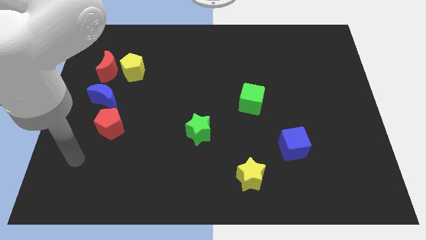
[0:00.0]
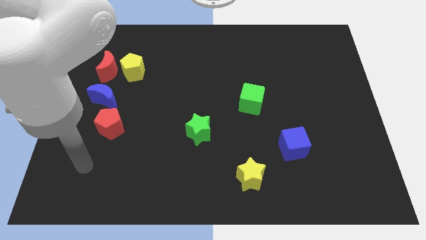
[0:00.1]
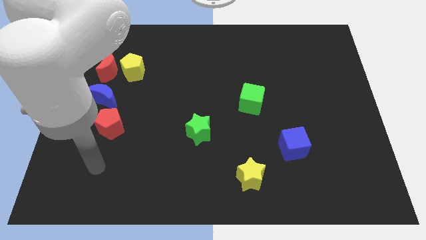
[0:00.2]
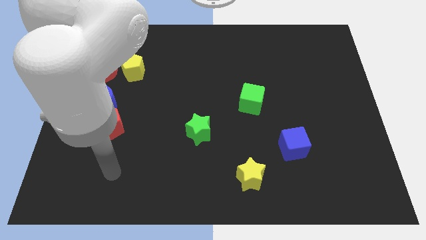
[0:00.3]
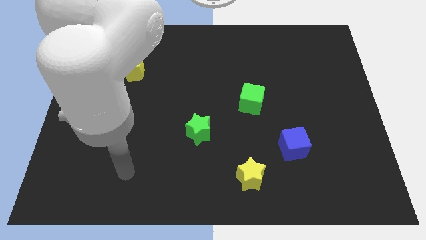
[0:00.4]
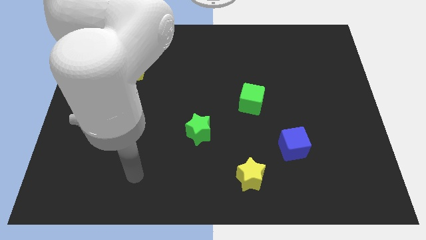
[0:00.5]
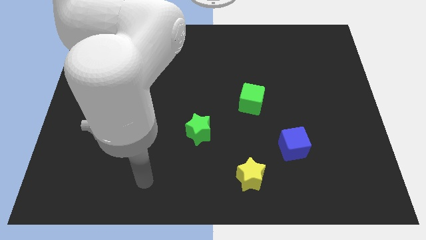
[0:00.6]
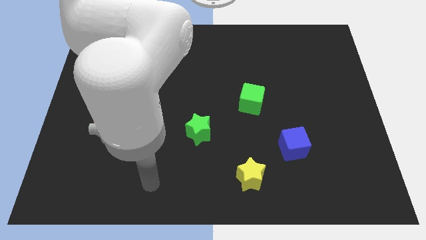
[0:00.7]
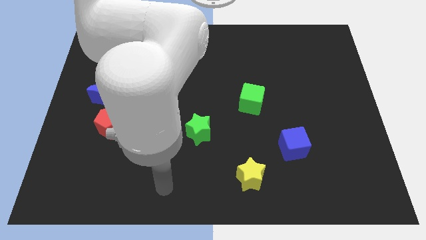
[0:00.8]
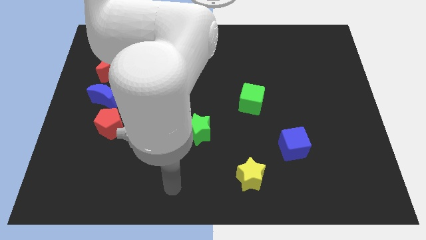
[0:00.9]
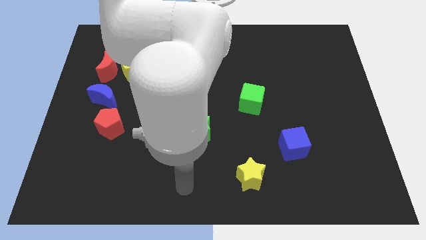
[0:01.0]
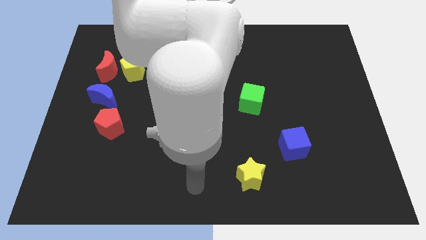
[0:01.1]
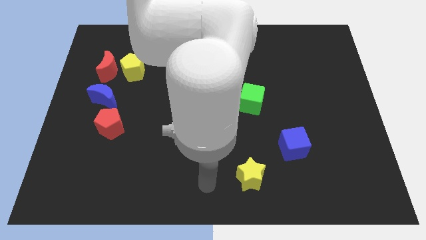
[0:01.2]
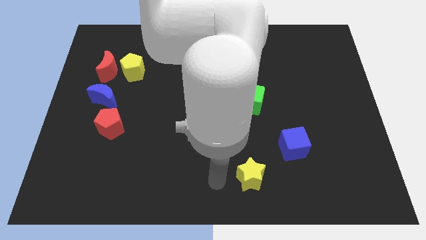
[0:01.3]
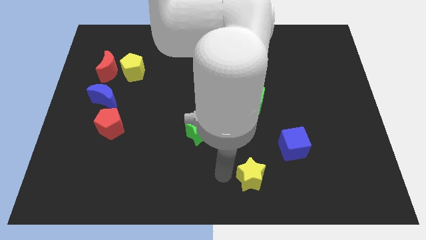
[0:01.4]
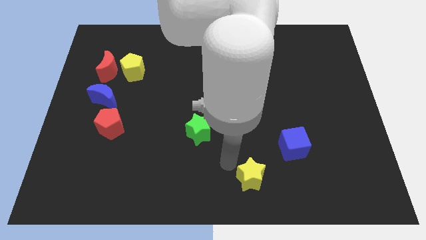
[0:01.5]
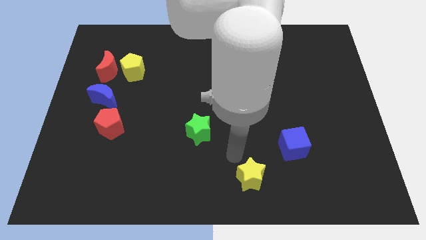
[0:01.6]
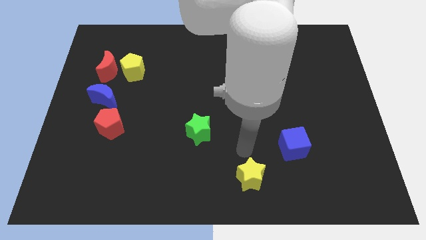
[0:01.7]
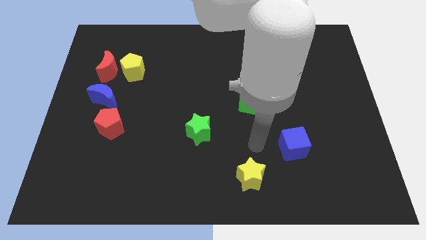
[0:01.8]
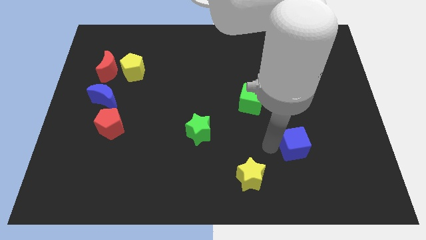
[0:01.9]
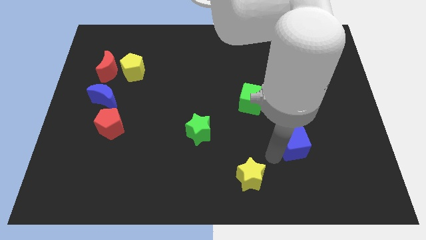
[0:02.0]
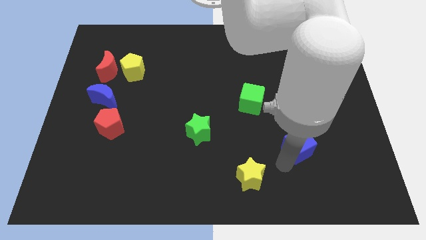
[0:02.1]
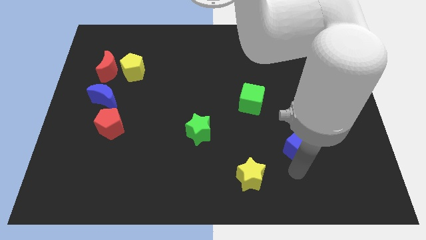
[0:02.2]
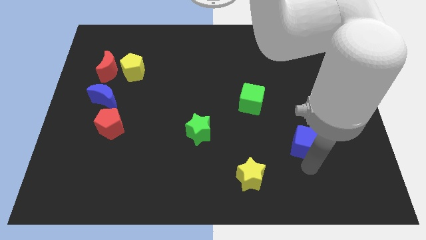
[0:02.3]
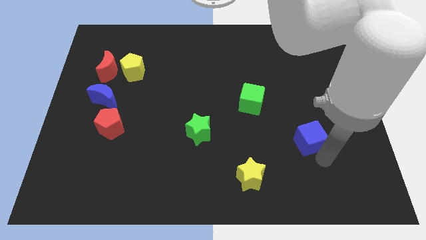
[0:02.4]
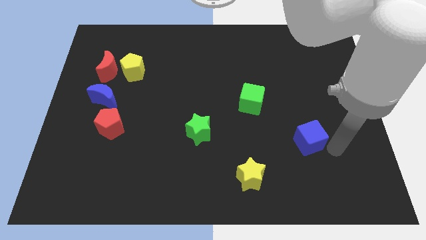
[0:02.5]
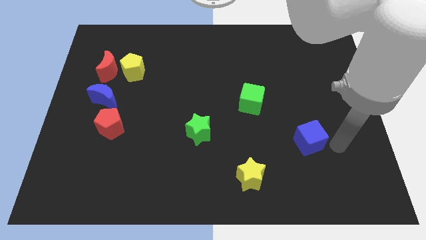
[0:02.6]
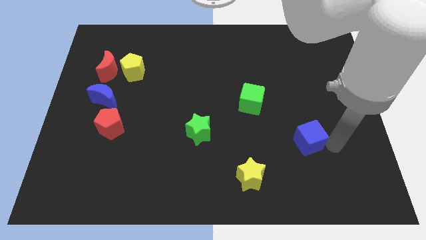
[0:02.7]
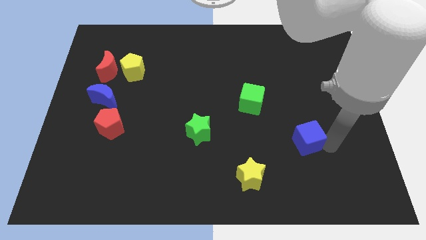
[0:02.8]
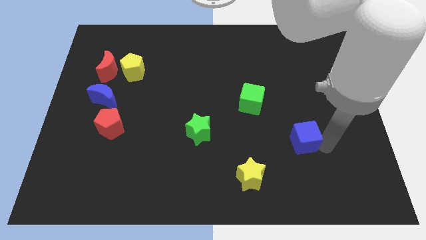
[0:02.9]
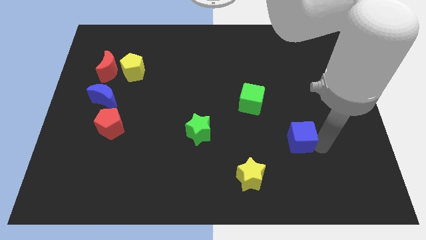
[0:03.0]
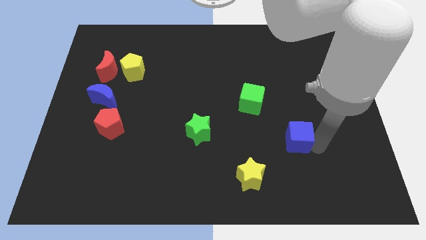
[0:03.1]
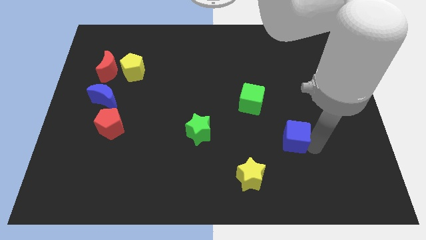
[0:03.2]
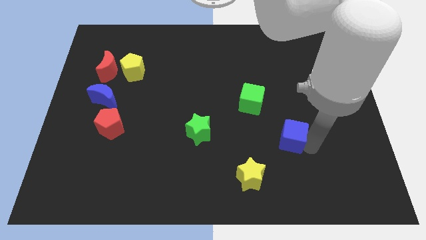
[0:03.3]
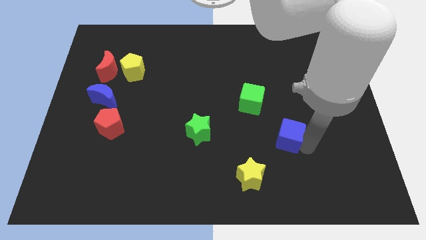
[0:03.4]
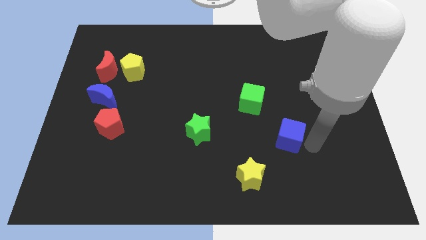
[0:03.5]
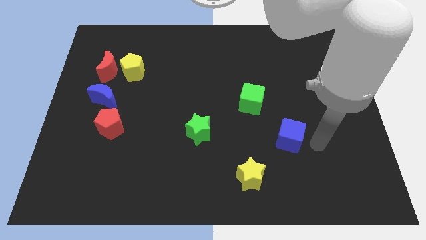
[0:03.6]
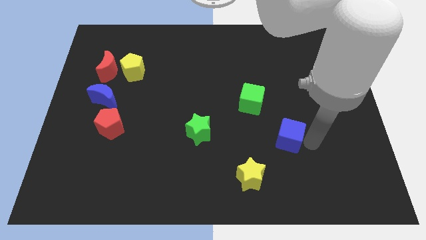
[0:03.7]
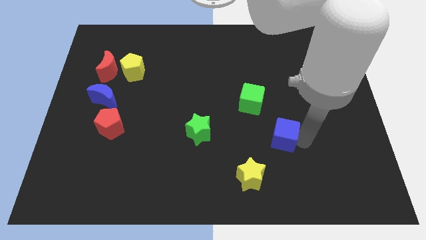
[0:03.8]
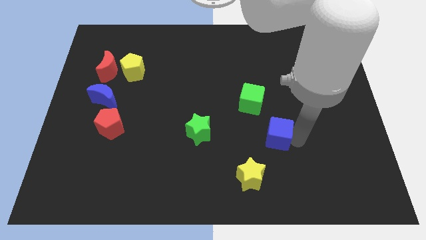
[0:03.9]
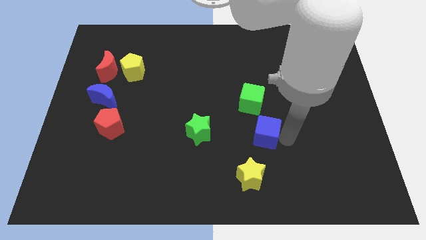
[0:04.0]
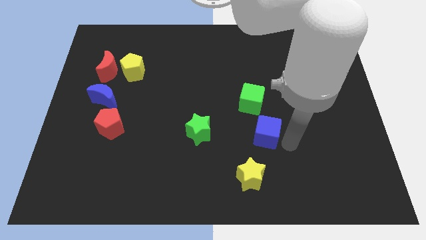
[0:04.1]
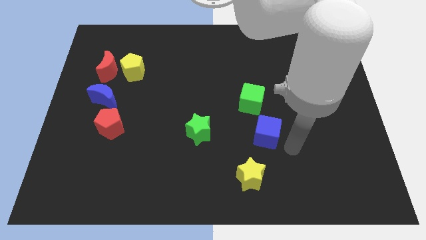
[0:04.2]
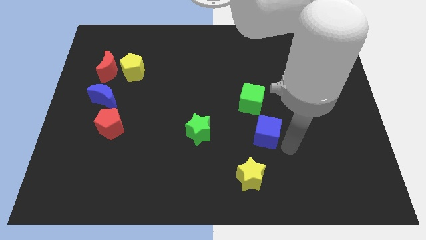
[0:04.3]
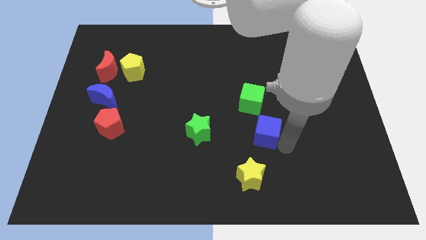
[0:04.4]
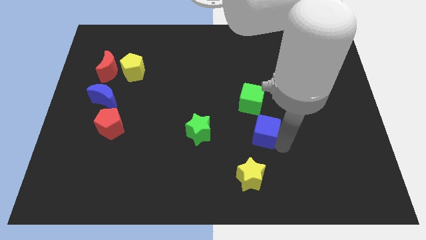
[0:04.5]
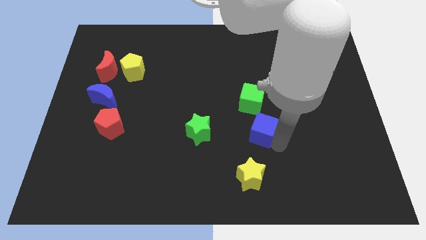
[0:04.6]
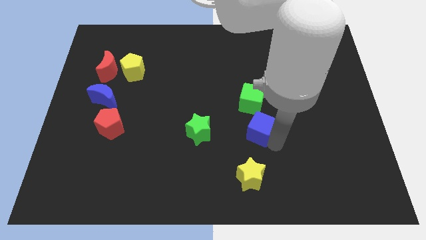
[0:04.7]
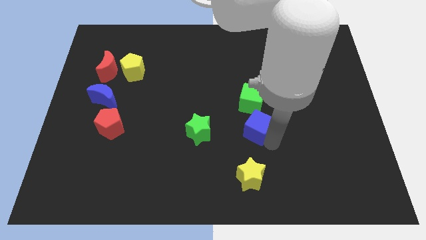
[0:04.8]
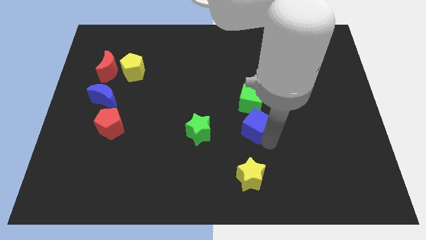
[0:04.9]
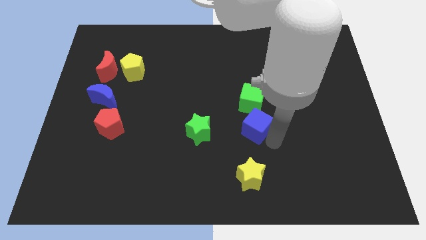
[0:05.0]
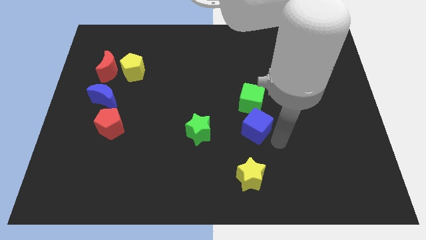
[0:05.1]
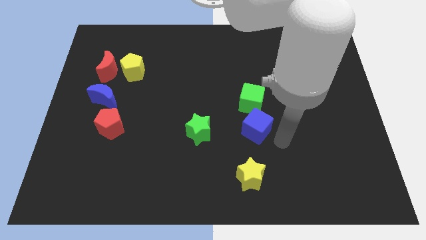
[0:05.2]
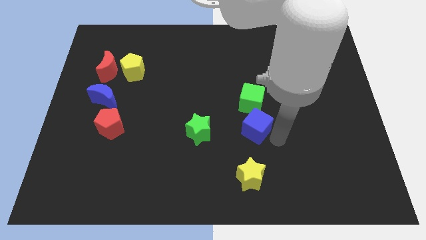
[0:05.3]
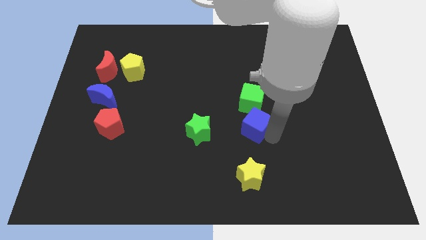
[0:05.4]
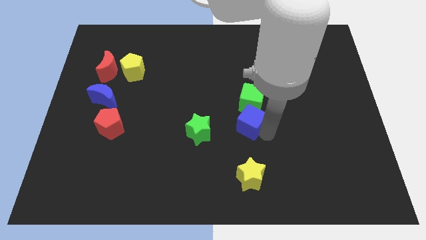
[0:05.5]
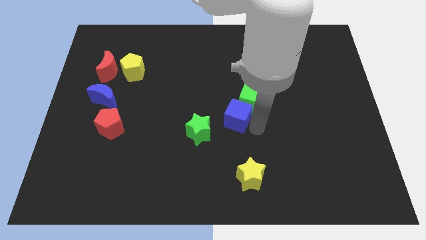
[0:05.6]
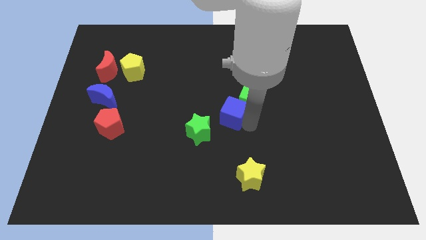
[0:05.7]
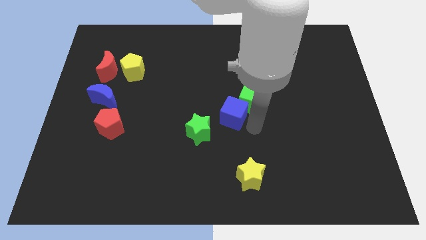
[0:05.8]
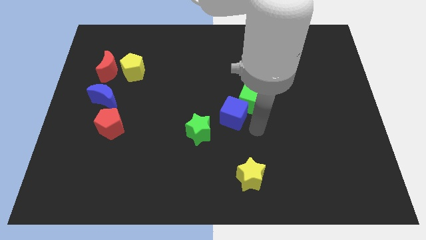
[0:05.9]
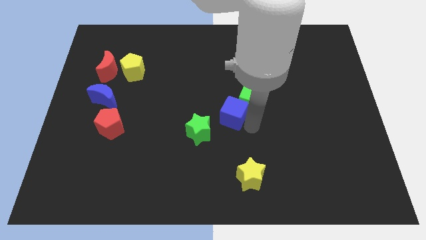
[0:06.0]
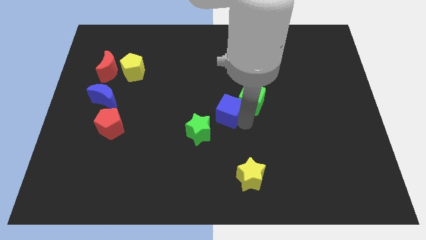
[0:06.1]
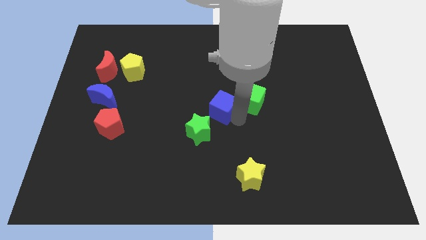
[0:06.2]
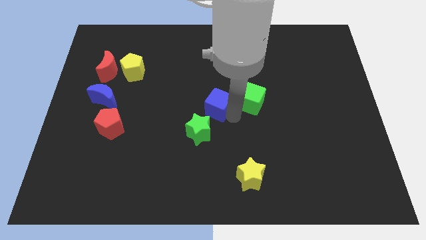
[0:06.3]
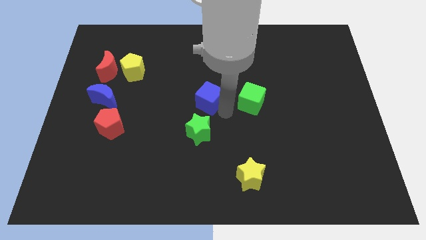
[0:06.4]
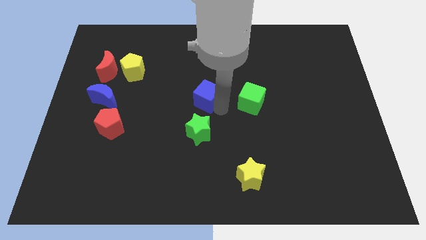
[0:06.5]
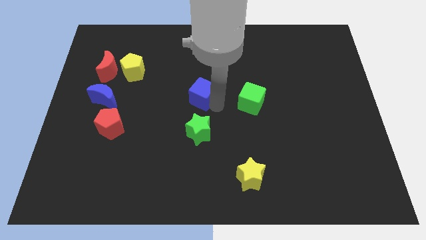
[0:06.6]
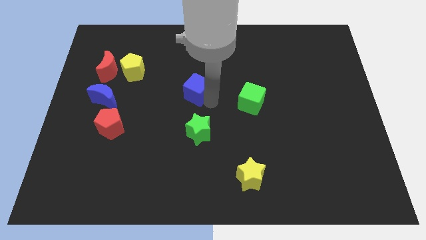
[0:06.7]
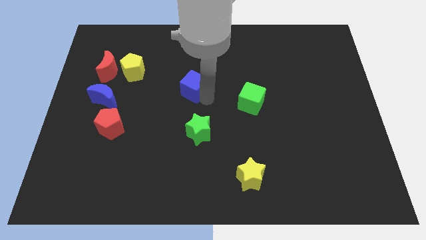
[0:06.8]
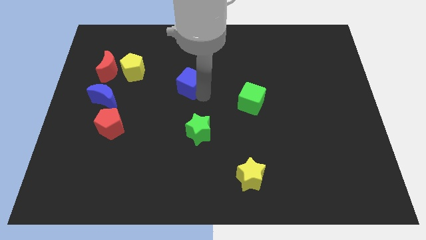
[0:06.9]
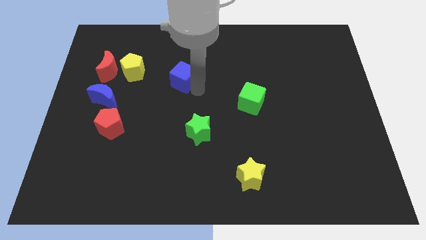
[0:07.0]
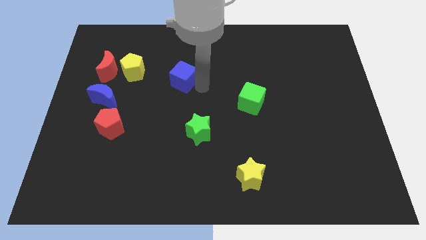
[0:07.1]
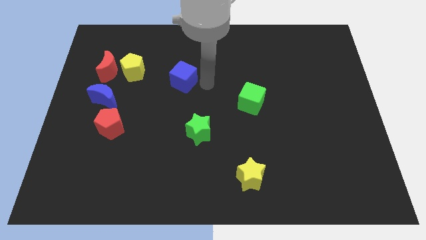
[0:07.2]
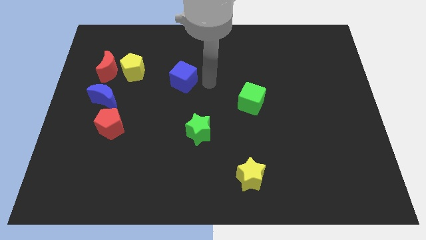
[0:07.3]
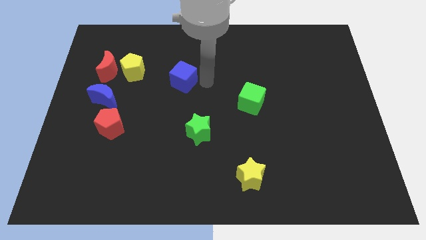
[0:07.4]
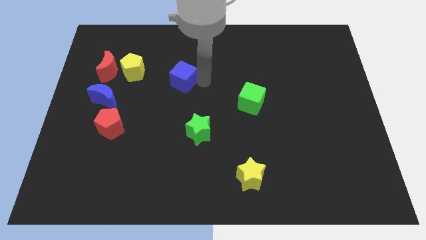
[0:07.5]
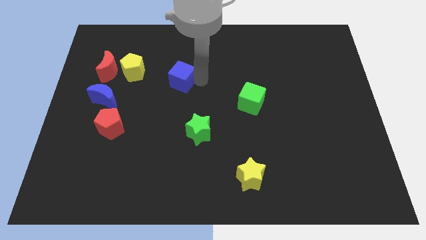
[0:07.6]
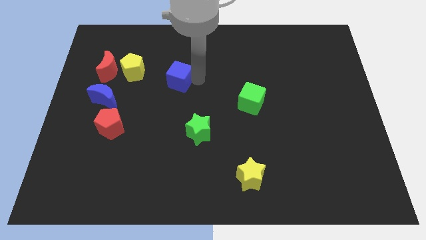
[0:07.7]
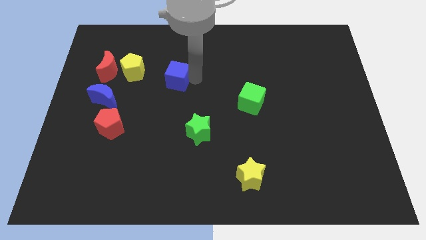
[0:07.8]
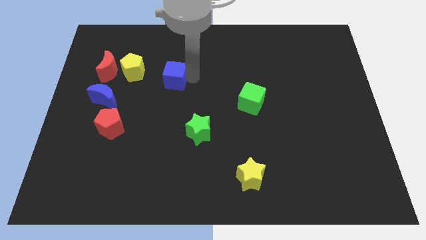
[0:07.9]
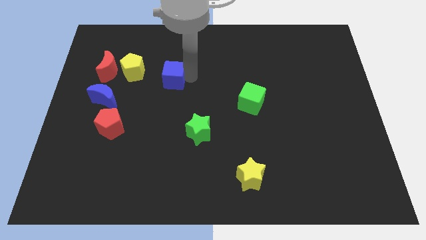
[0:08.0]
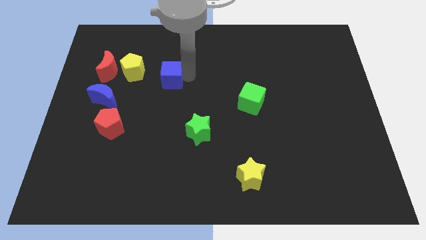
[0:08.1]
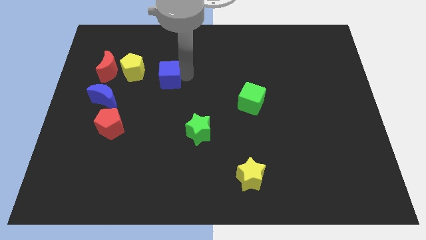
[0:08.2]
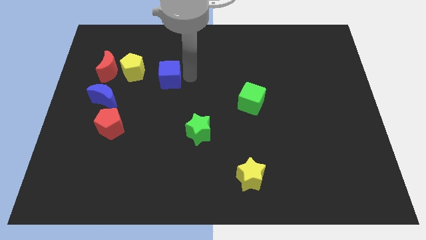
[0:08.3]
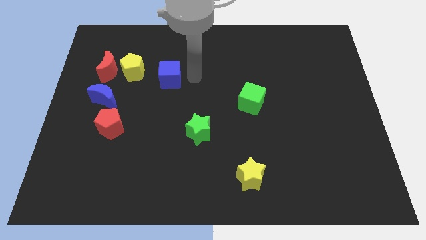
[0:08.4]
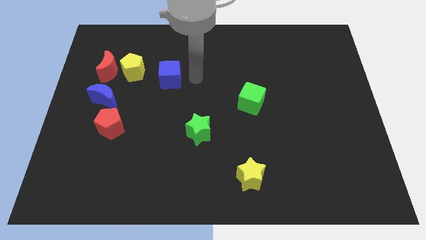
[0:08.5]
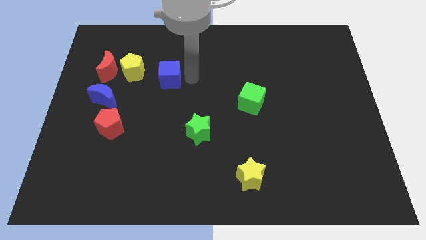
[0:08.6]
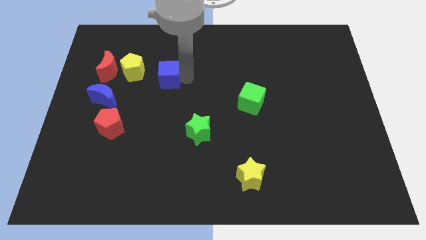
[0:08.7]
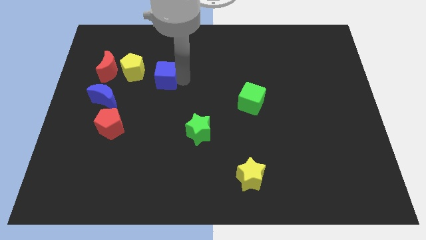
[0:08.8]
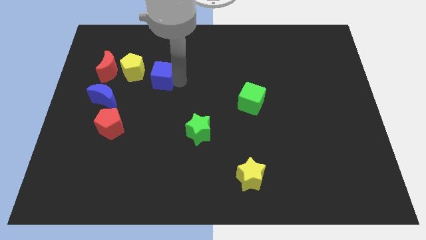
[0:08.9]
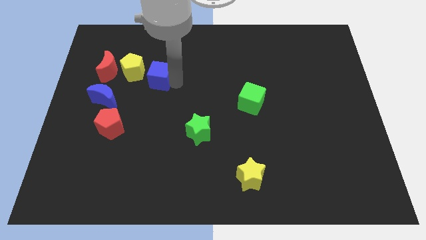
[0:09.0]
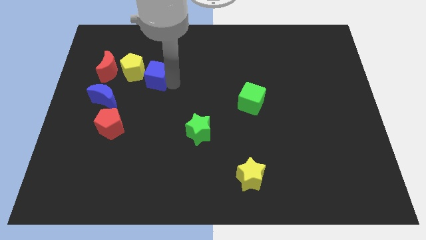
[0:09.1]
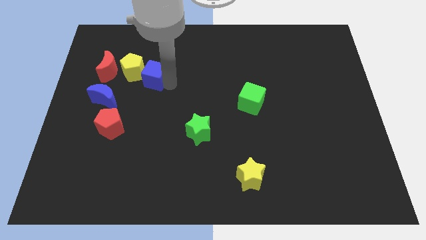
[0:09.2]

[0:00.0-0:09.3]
push the blue cube towards the yellow pentagon
